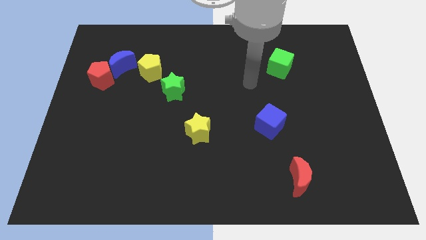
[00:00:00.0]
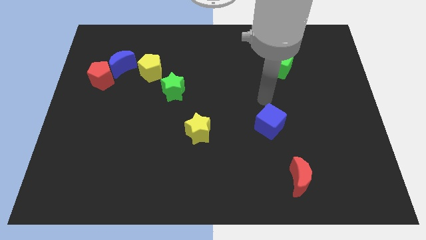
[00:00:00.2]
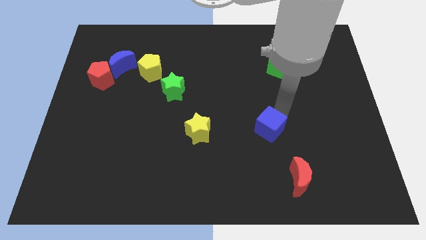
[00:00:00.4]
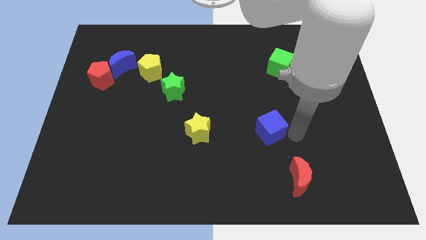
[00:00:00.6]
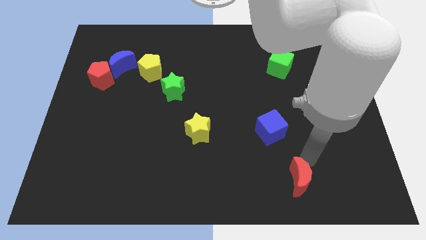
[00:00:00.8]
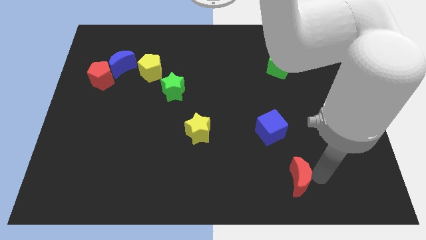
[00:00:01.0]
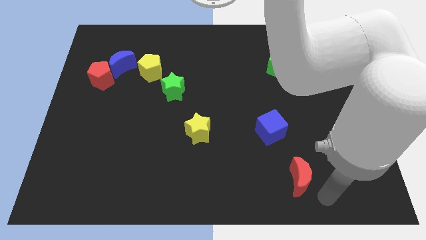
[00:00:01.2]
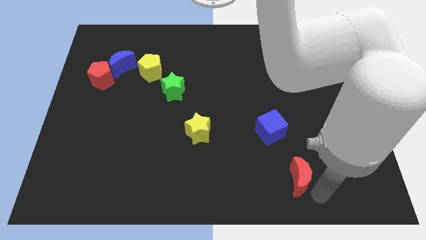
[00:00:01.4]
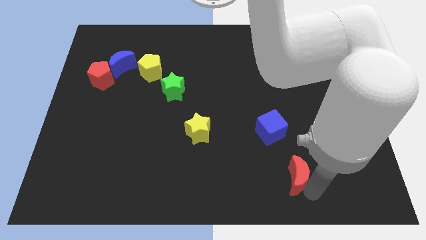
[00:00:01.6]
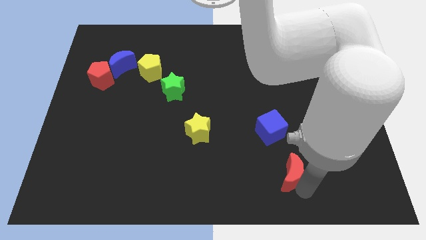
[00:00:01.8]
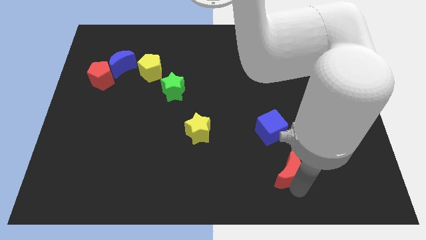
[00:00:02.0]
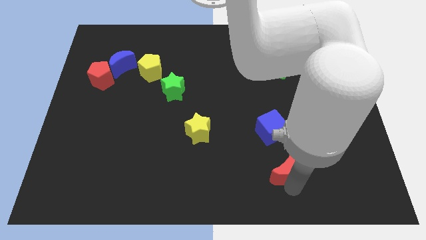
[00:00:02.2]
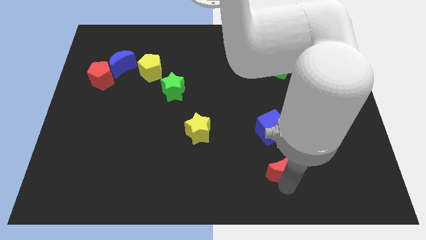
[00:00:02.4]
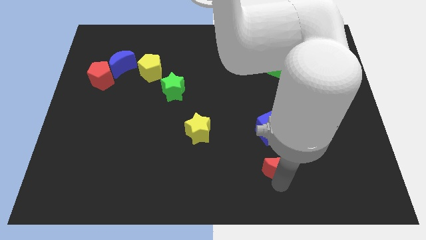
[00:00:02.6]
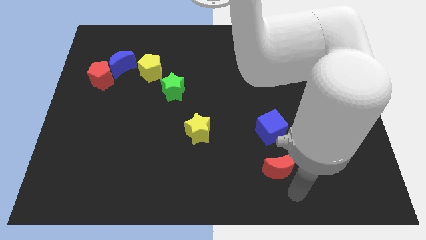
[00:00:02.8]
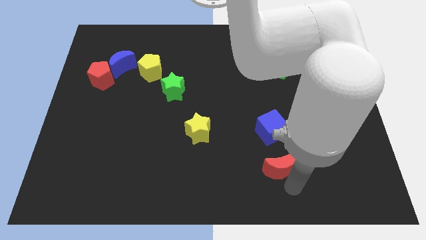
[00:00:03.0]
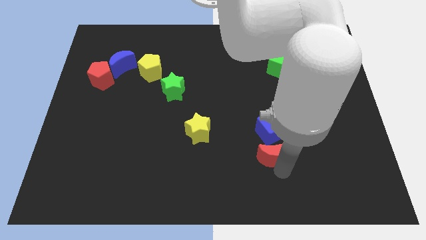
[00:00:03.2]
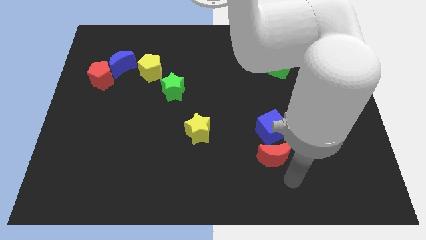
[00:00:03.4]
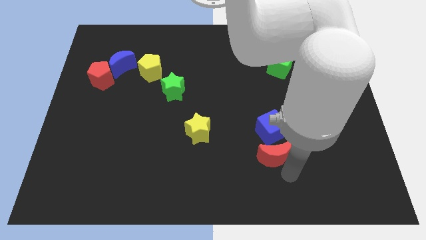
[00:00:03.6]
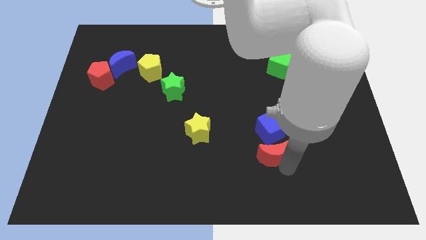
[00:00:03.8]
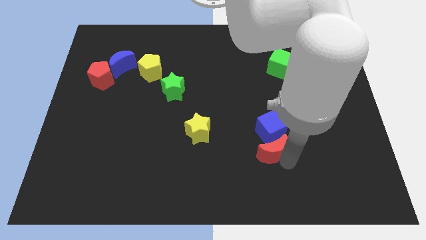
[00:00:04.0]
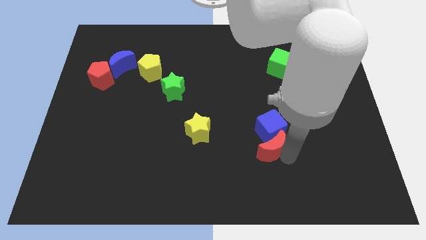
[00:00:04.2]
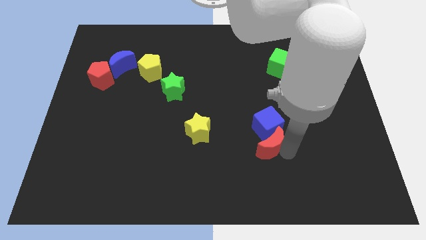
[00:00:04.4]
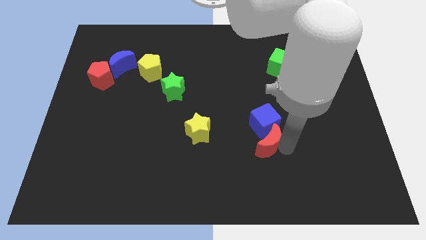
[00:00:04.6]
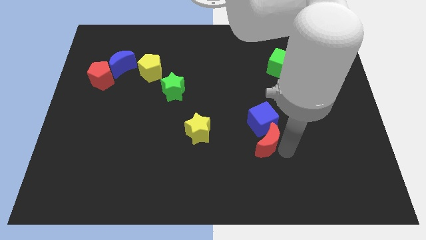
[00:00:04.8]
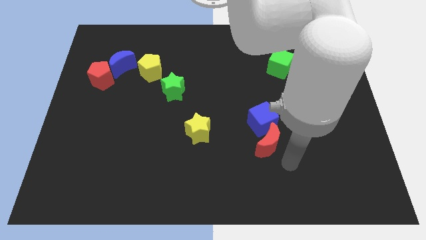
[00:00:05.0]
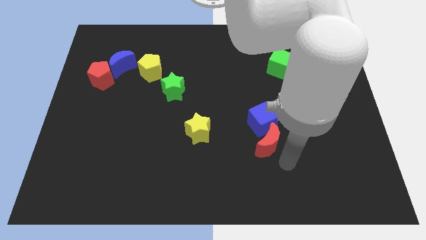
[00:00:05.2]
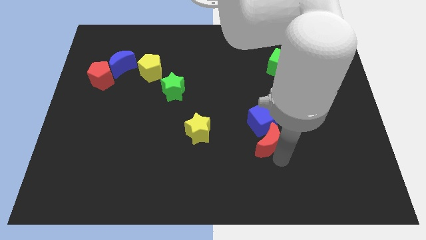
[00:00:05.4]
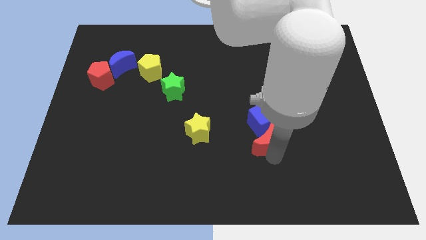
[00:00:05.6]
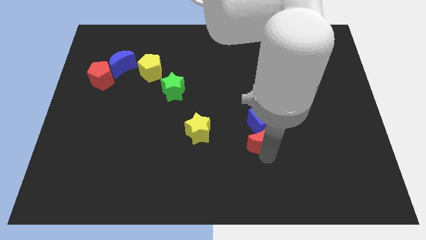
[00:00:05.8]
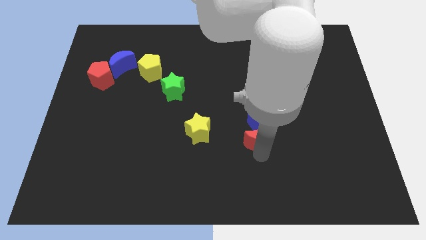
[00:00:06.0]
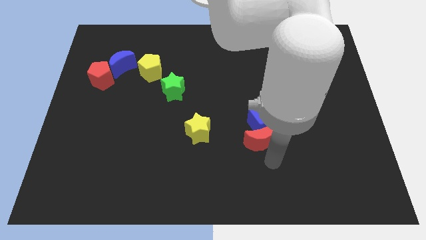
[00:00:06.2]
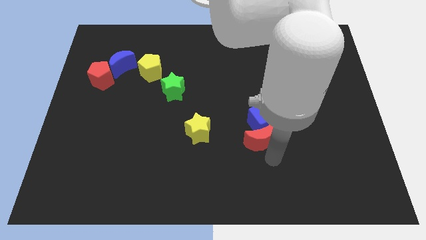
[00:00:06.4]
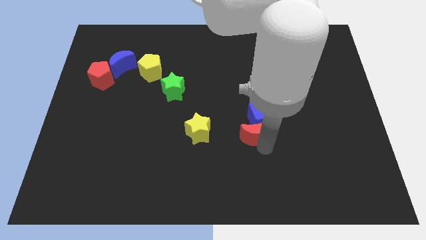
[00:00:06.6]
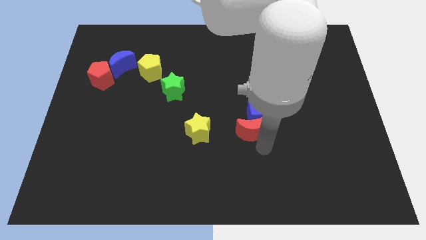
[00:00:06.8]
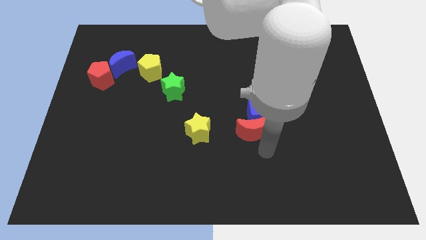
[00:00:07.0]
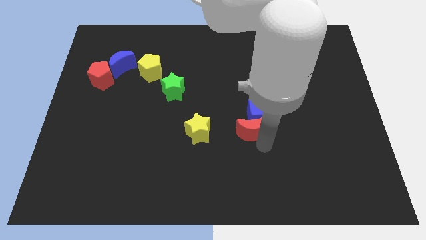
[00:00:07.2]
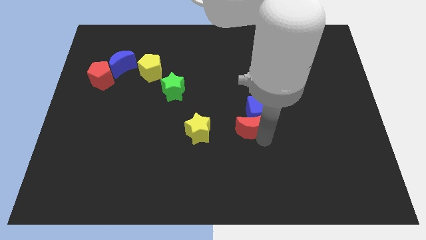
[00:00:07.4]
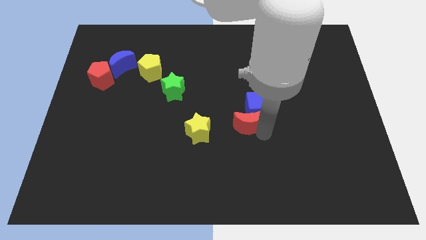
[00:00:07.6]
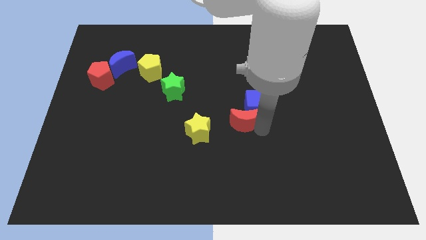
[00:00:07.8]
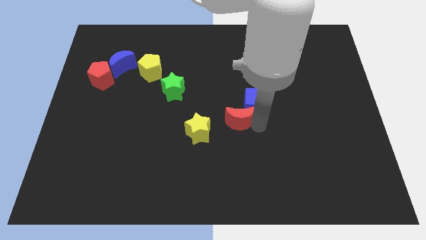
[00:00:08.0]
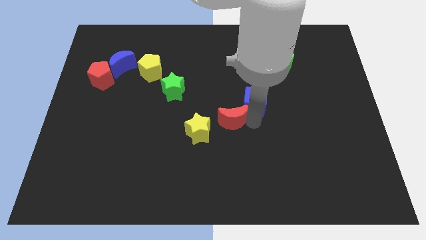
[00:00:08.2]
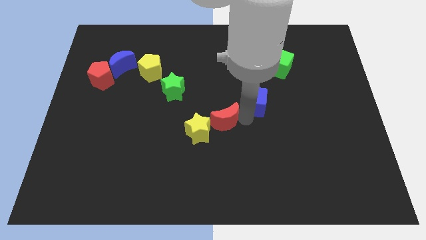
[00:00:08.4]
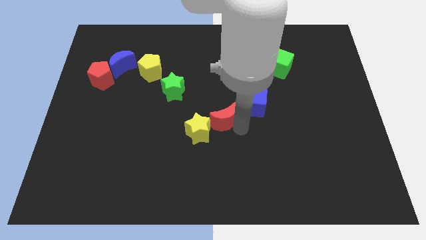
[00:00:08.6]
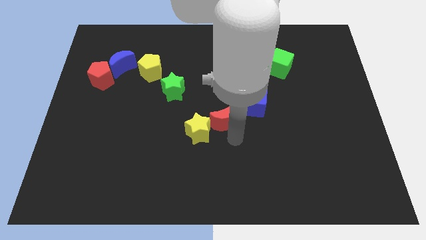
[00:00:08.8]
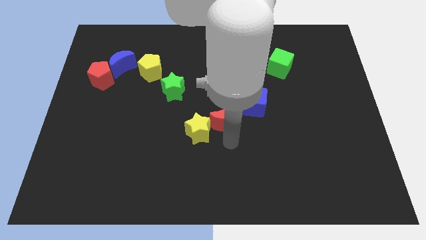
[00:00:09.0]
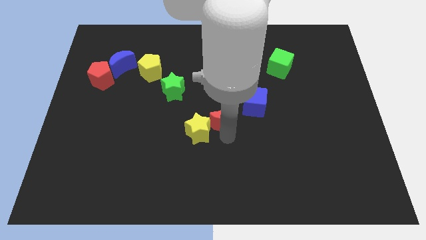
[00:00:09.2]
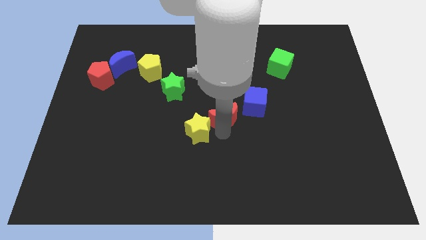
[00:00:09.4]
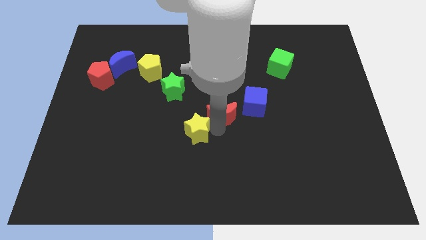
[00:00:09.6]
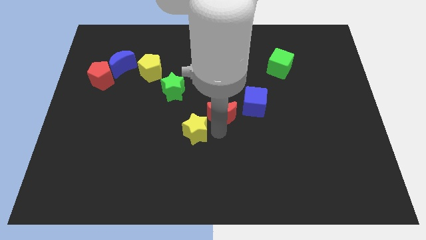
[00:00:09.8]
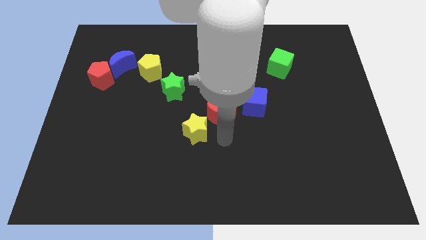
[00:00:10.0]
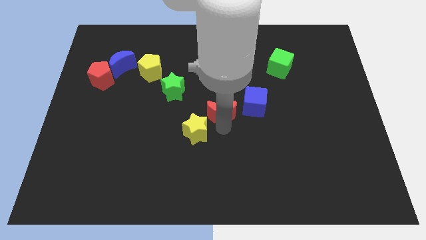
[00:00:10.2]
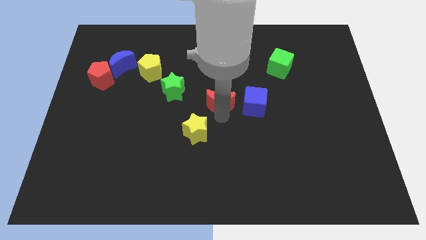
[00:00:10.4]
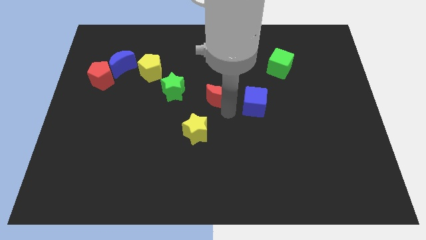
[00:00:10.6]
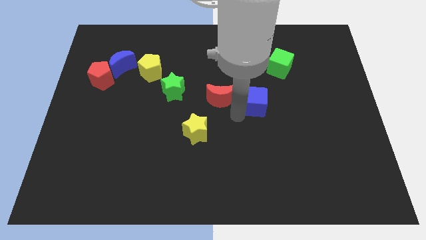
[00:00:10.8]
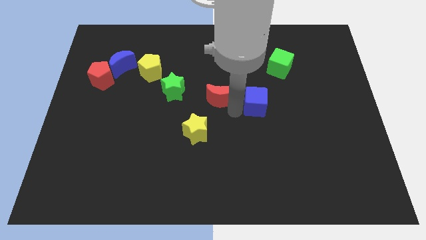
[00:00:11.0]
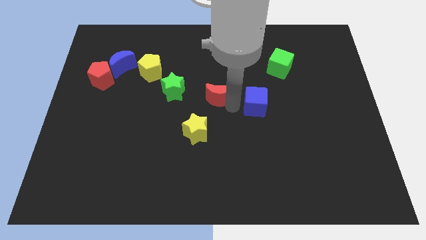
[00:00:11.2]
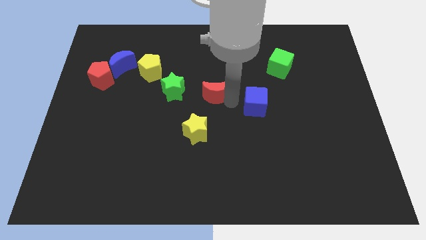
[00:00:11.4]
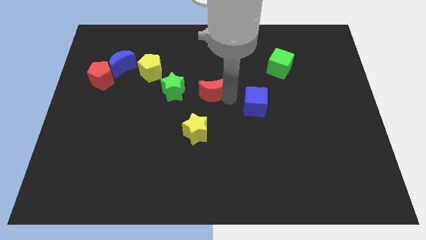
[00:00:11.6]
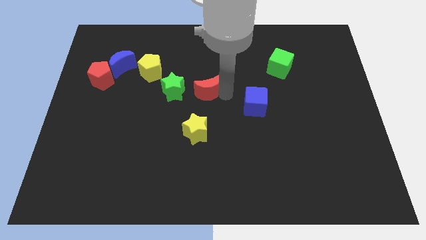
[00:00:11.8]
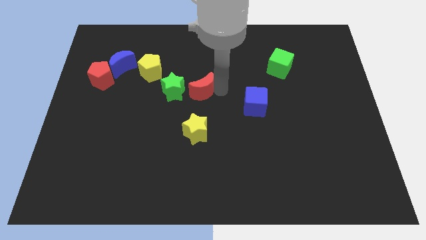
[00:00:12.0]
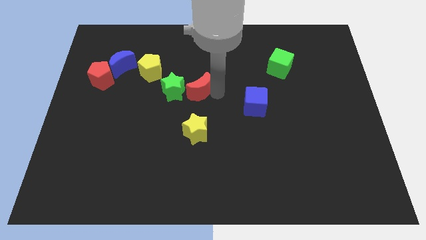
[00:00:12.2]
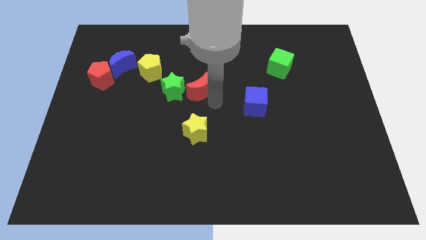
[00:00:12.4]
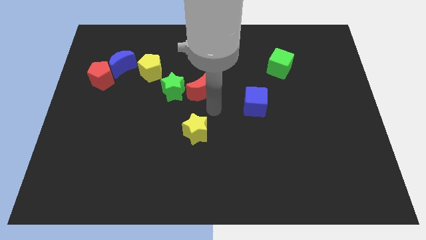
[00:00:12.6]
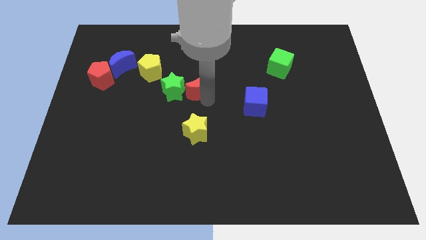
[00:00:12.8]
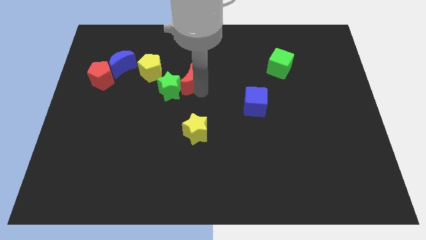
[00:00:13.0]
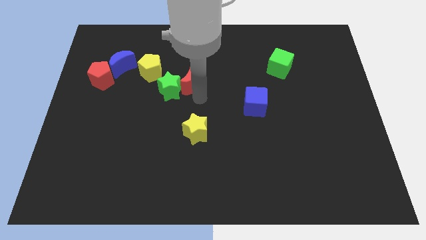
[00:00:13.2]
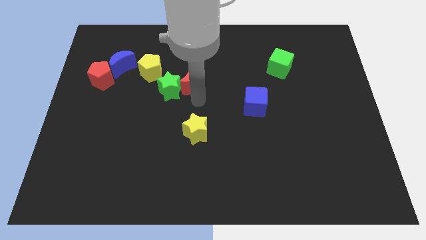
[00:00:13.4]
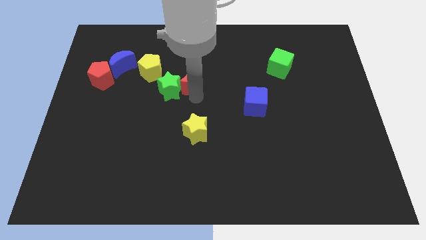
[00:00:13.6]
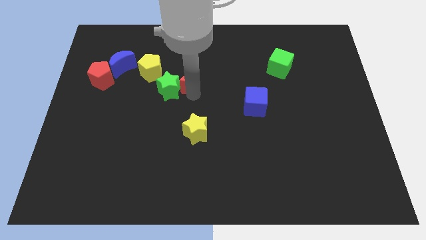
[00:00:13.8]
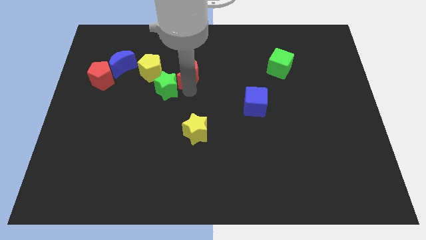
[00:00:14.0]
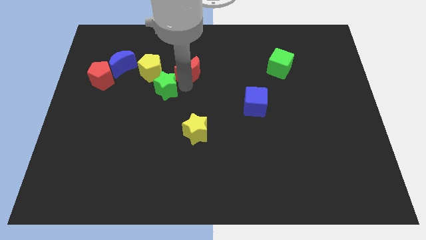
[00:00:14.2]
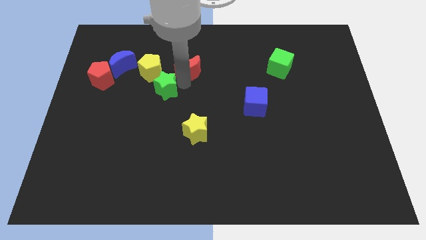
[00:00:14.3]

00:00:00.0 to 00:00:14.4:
push the red moon to the top of the green star

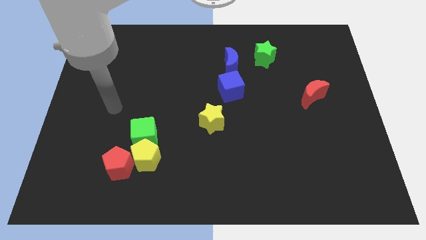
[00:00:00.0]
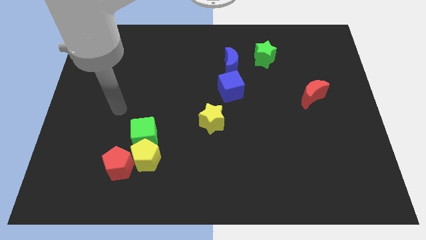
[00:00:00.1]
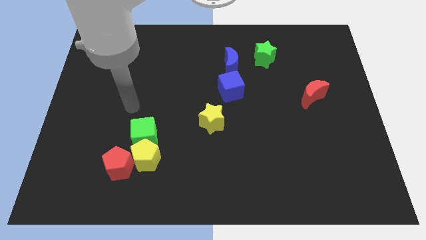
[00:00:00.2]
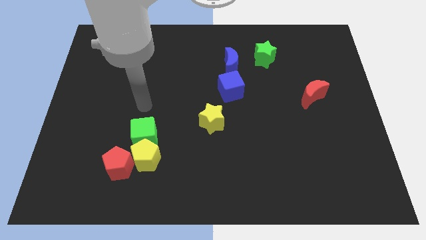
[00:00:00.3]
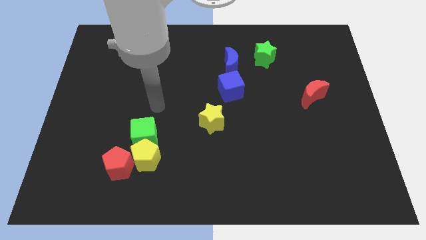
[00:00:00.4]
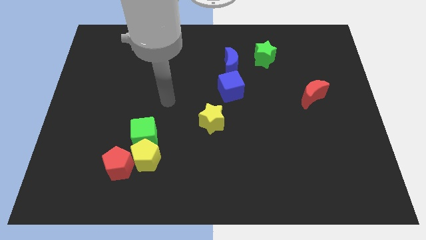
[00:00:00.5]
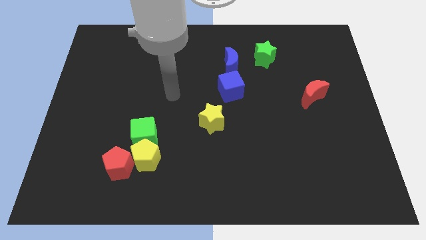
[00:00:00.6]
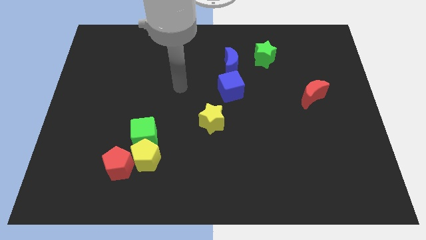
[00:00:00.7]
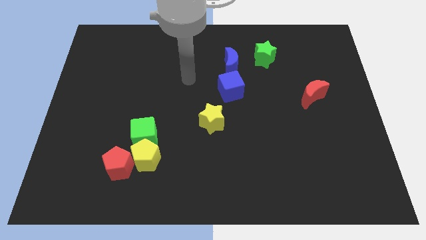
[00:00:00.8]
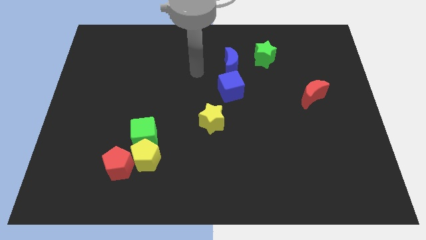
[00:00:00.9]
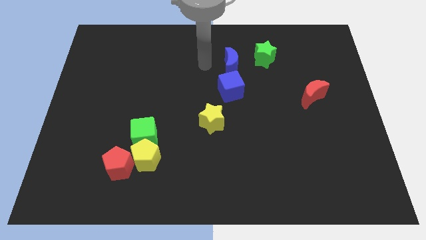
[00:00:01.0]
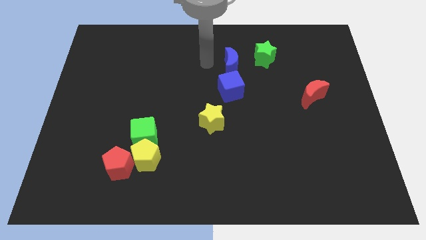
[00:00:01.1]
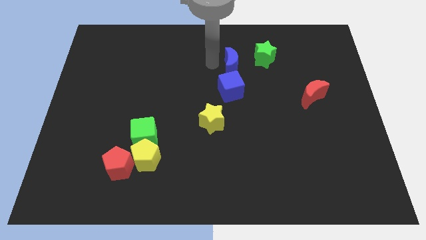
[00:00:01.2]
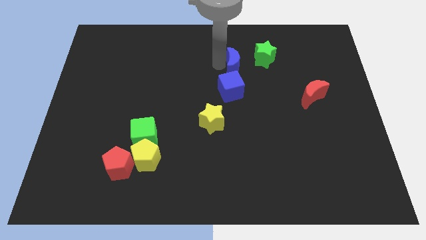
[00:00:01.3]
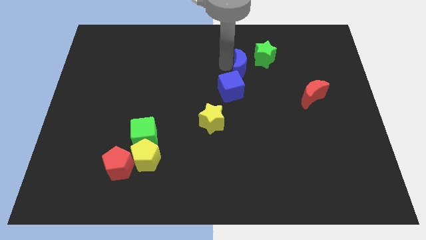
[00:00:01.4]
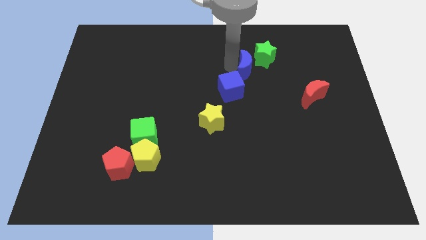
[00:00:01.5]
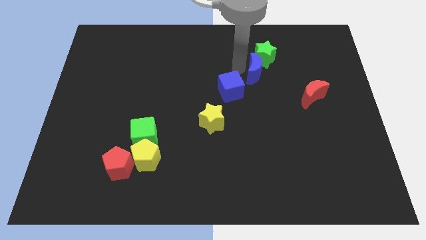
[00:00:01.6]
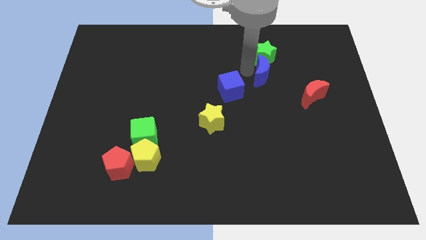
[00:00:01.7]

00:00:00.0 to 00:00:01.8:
push the blue moon diagonally down and to the right of the green star
